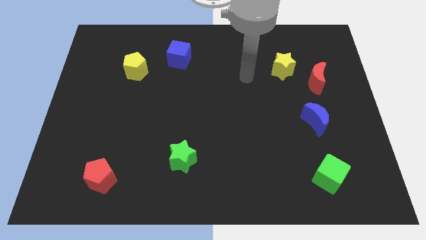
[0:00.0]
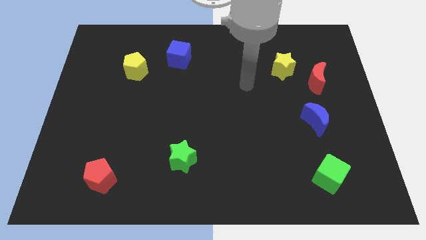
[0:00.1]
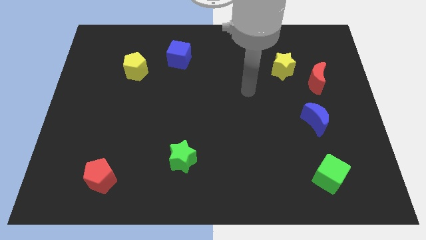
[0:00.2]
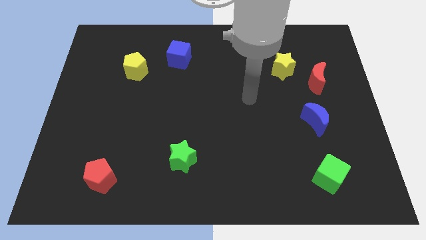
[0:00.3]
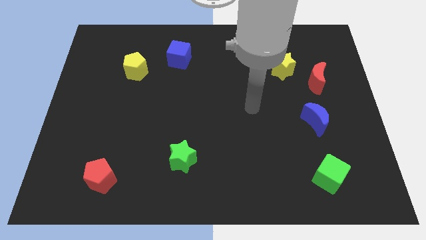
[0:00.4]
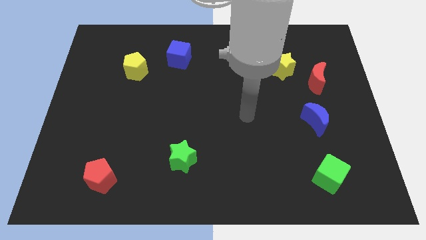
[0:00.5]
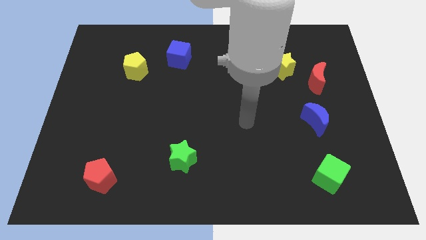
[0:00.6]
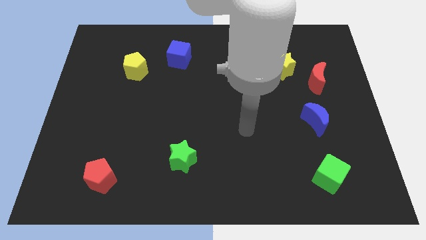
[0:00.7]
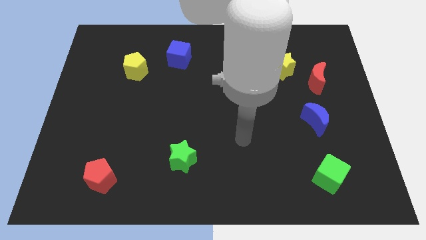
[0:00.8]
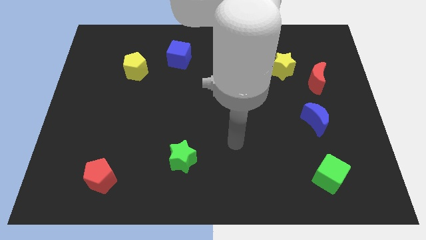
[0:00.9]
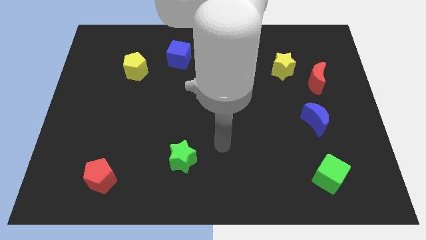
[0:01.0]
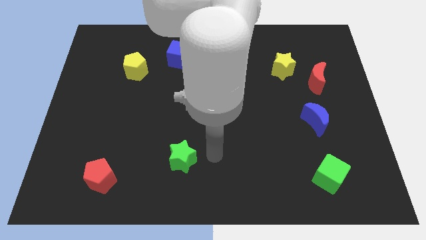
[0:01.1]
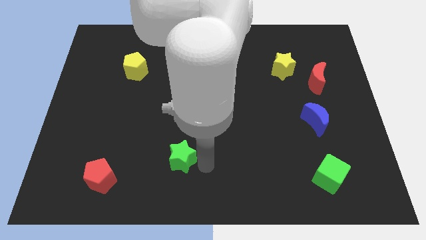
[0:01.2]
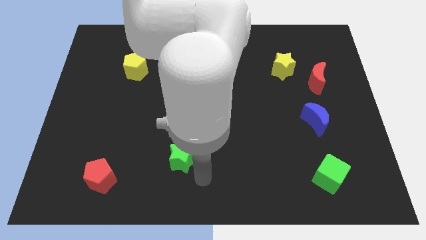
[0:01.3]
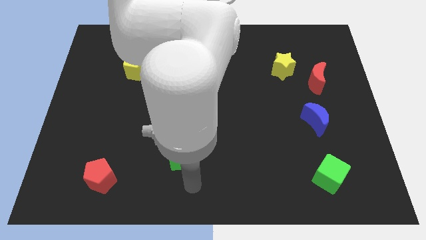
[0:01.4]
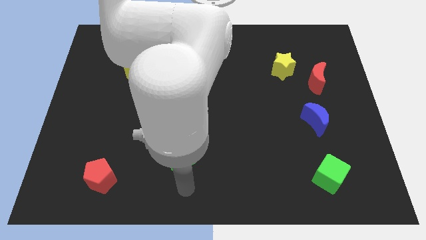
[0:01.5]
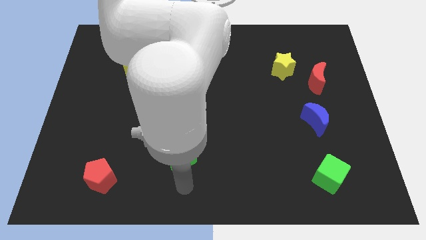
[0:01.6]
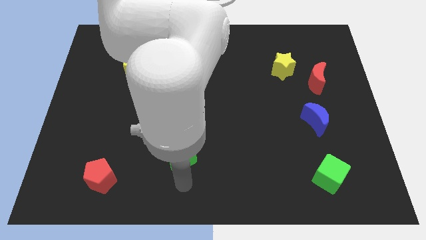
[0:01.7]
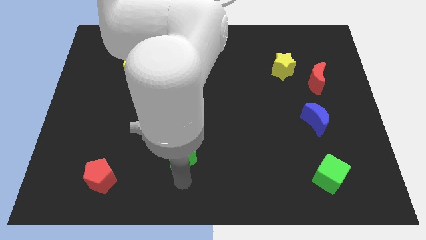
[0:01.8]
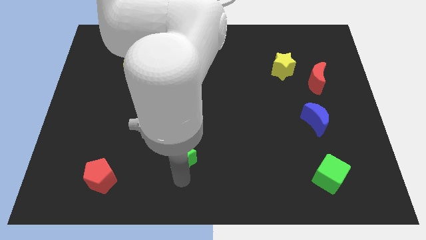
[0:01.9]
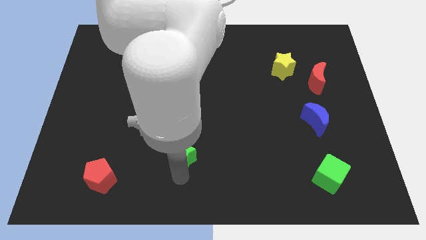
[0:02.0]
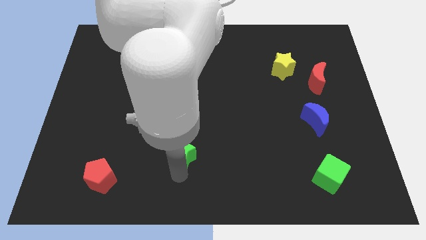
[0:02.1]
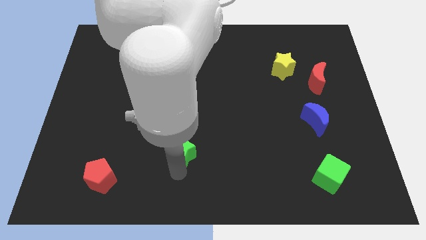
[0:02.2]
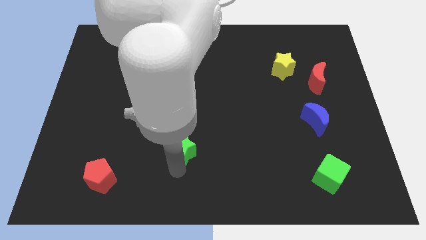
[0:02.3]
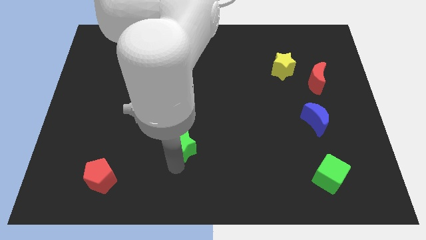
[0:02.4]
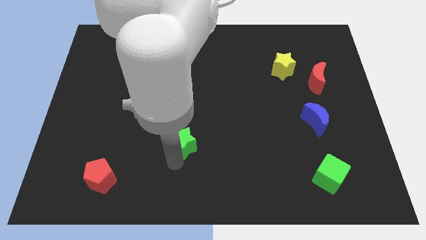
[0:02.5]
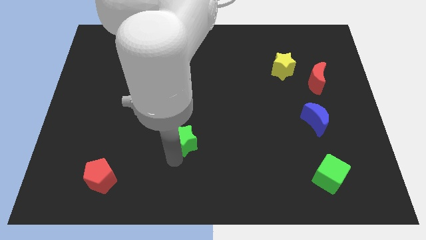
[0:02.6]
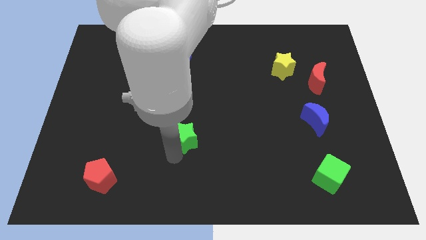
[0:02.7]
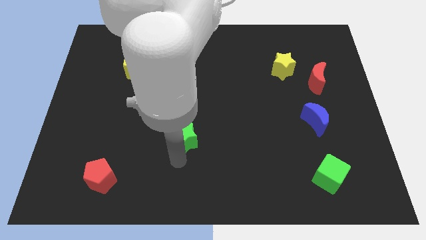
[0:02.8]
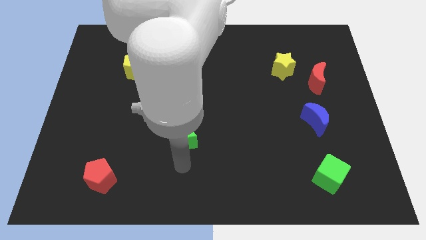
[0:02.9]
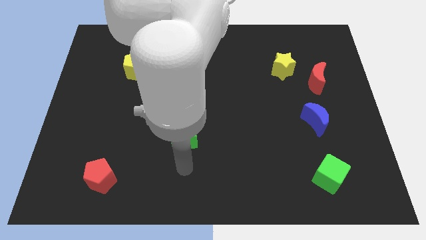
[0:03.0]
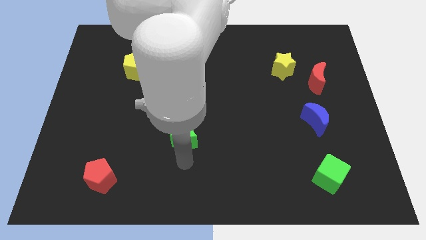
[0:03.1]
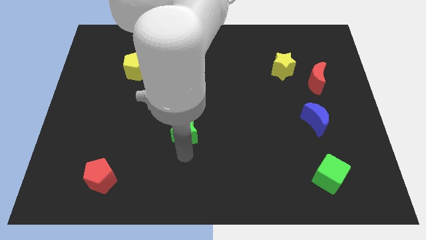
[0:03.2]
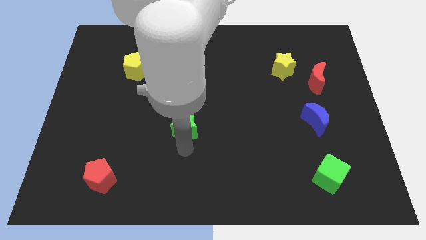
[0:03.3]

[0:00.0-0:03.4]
move the green star up slightly

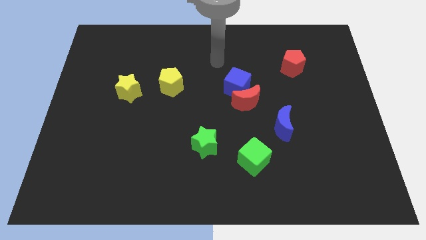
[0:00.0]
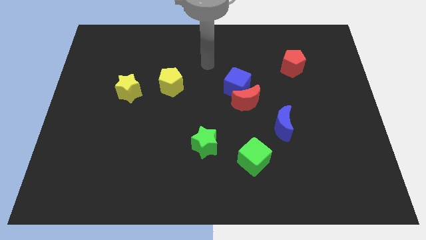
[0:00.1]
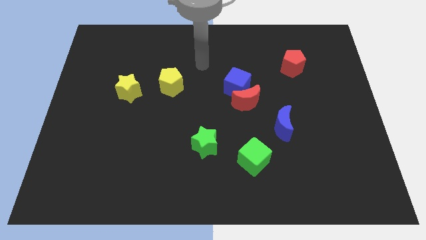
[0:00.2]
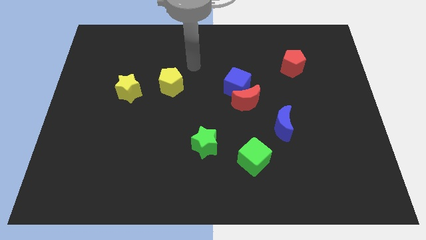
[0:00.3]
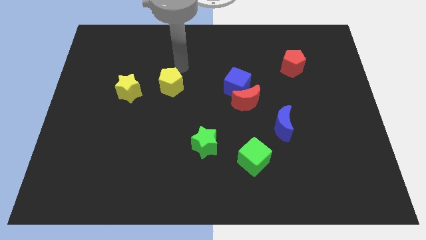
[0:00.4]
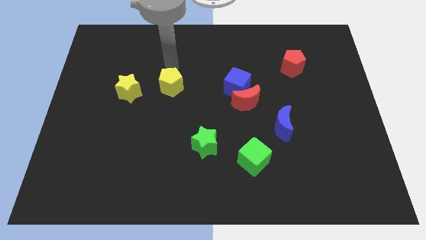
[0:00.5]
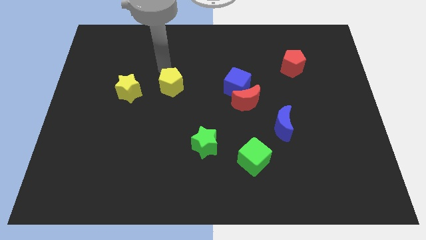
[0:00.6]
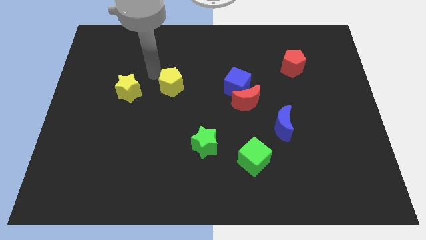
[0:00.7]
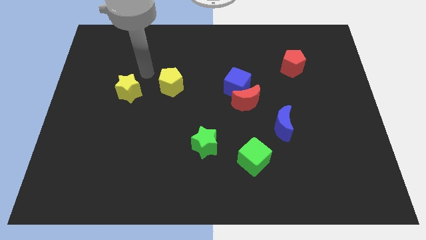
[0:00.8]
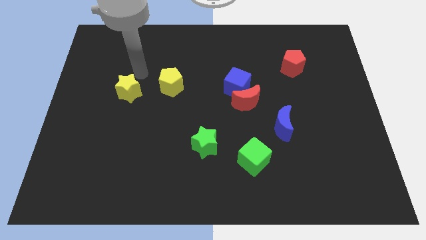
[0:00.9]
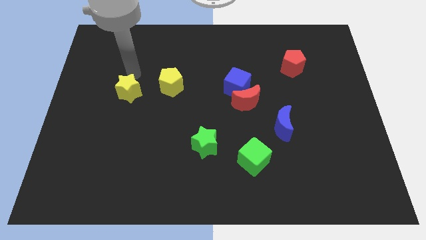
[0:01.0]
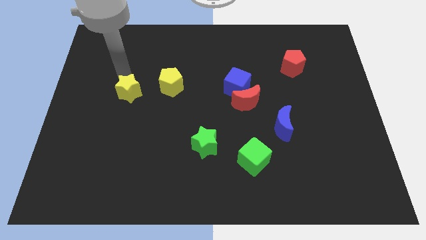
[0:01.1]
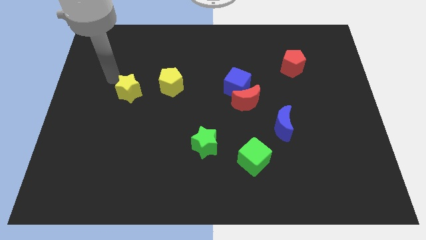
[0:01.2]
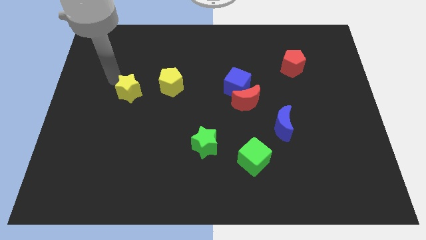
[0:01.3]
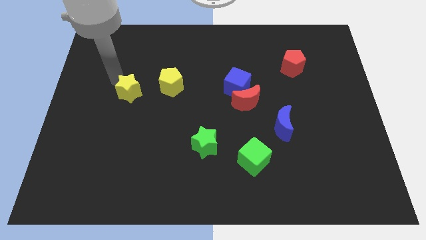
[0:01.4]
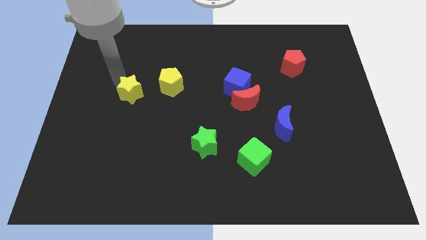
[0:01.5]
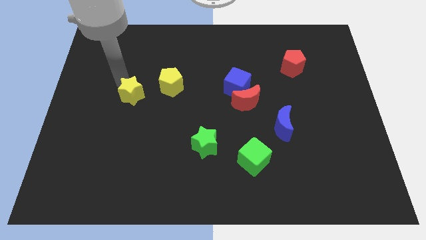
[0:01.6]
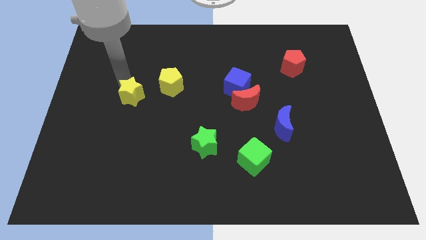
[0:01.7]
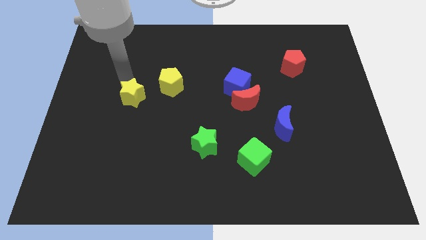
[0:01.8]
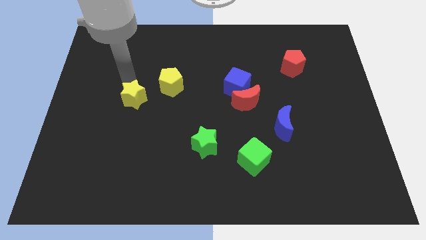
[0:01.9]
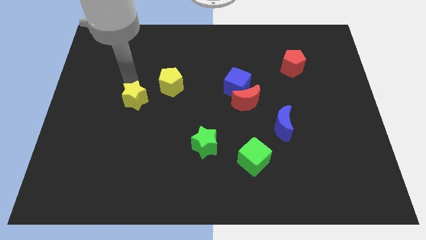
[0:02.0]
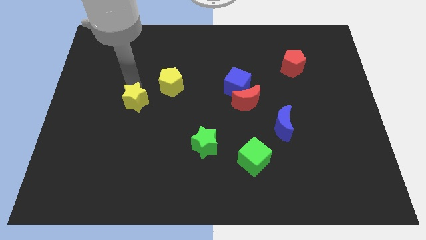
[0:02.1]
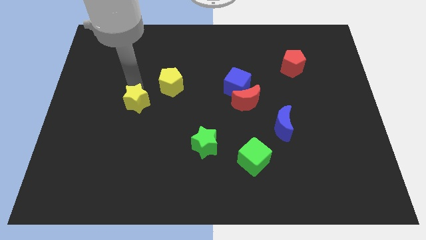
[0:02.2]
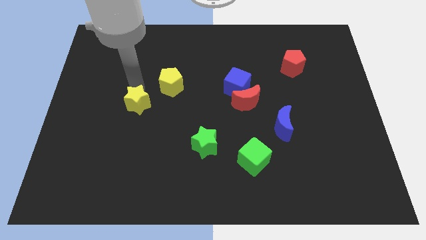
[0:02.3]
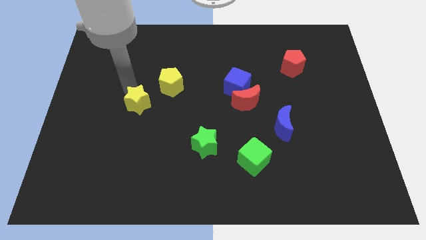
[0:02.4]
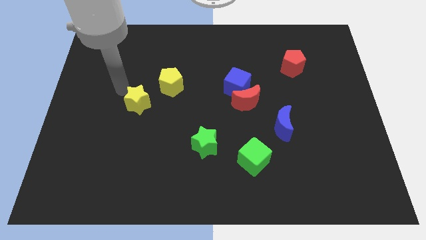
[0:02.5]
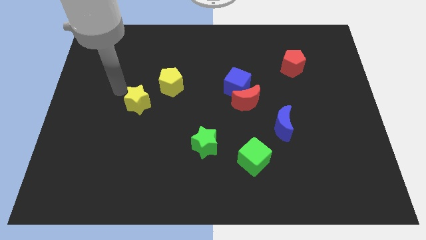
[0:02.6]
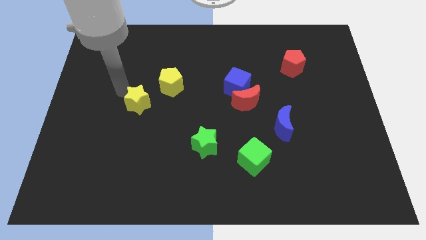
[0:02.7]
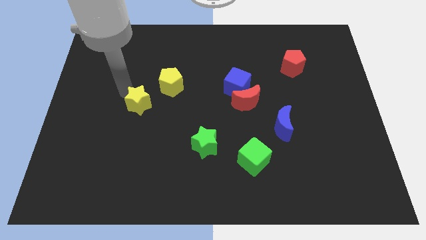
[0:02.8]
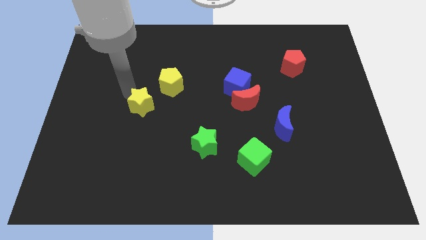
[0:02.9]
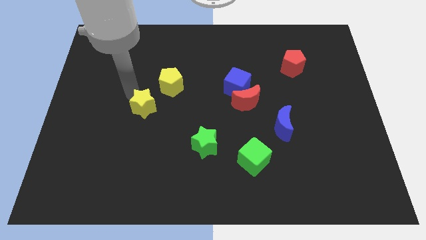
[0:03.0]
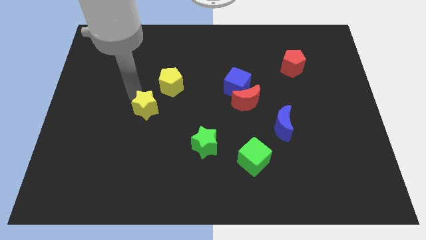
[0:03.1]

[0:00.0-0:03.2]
push the yellow star a little bit downwards and right

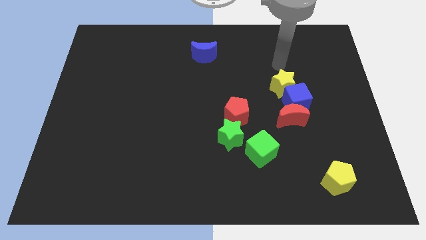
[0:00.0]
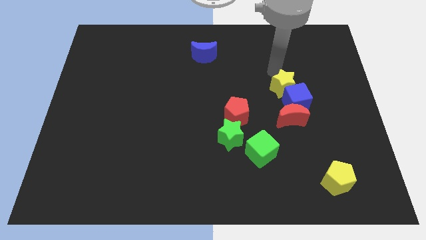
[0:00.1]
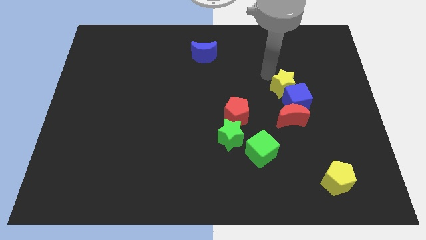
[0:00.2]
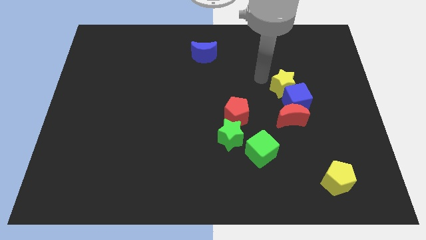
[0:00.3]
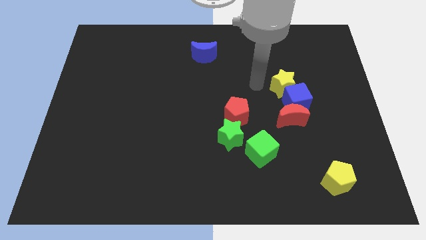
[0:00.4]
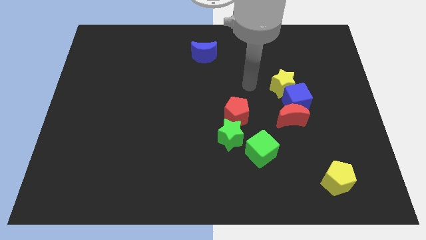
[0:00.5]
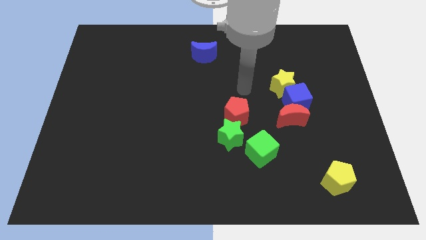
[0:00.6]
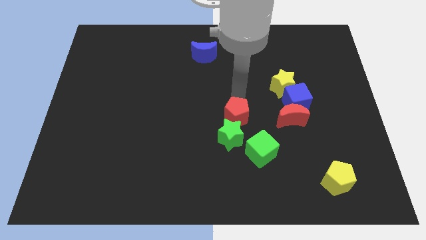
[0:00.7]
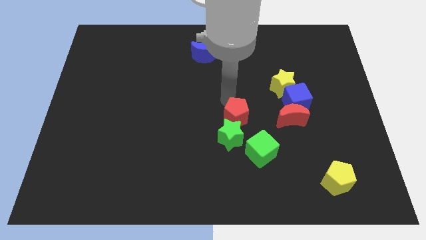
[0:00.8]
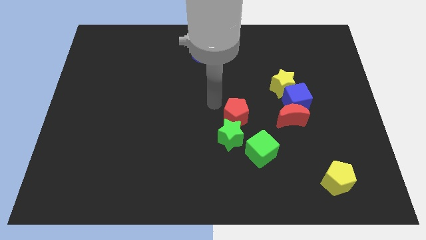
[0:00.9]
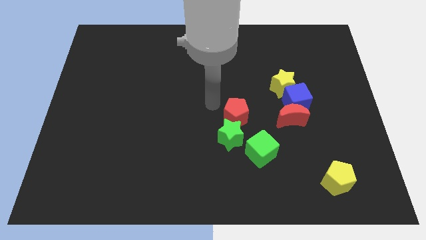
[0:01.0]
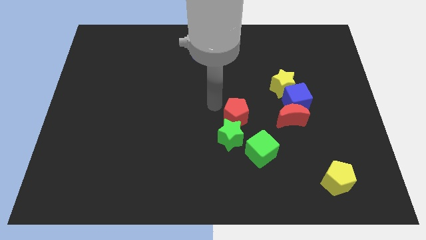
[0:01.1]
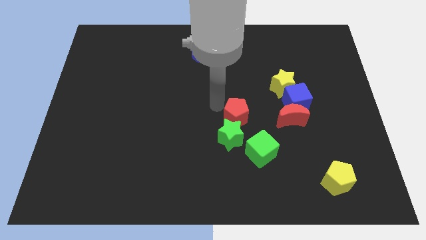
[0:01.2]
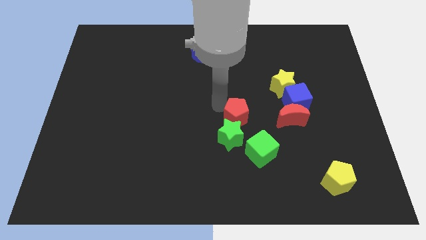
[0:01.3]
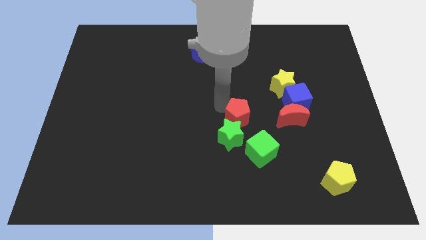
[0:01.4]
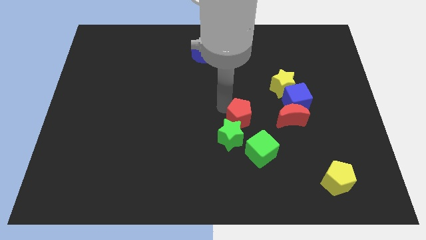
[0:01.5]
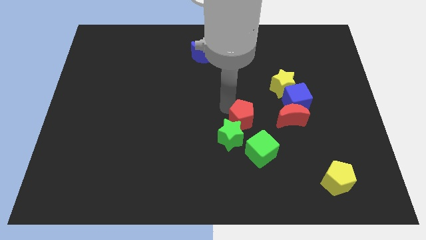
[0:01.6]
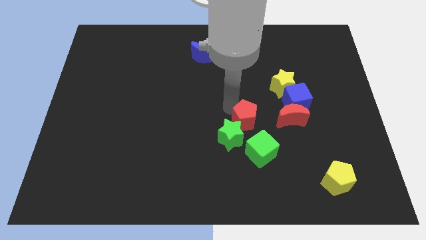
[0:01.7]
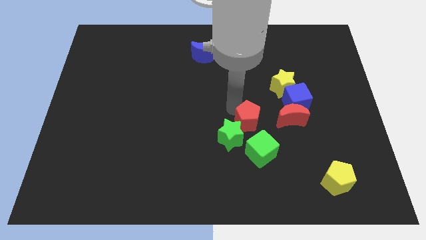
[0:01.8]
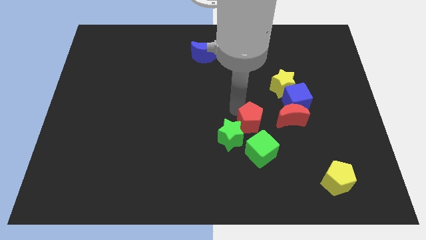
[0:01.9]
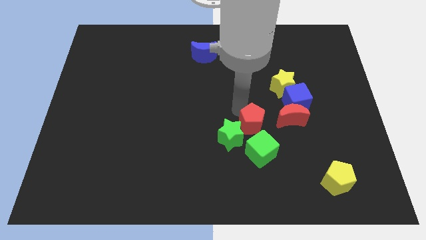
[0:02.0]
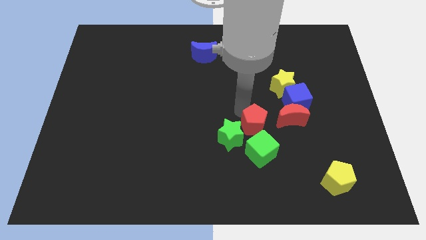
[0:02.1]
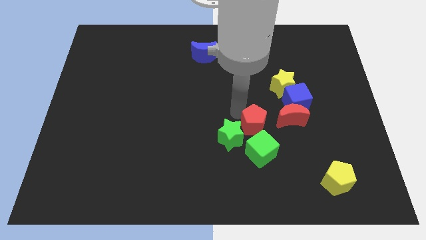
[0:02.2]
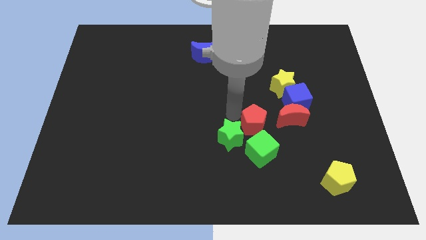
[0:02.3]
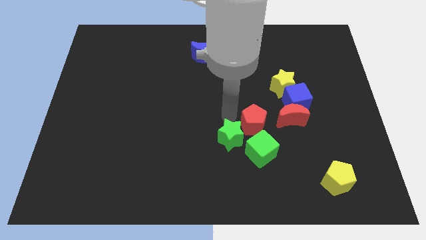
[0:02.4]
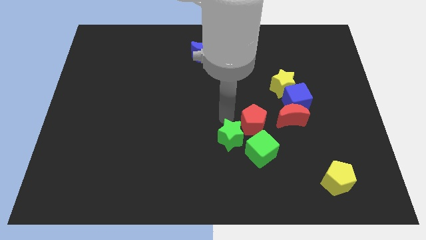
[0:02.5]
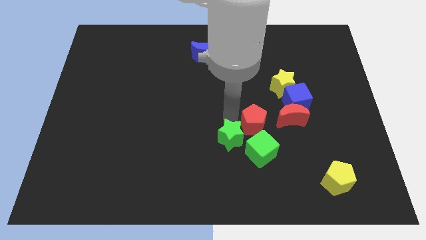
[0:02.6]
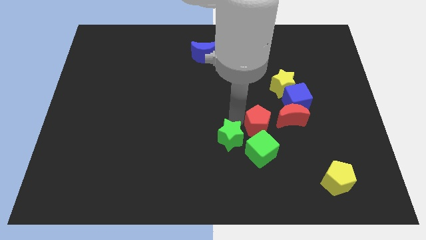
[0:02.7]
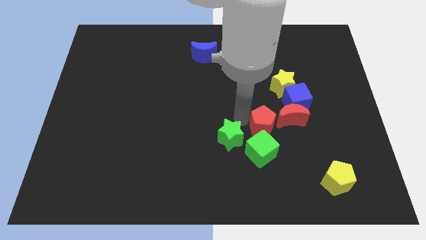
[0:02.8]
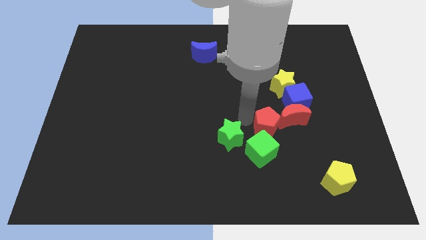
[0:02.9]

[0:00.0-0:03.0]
slightly push the red pentagon diagonally downwards and to the right
